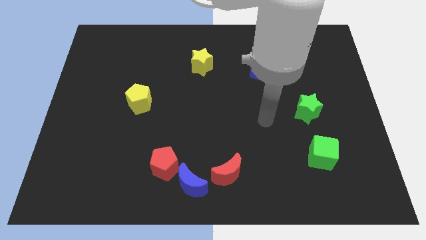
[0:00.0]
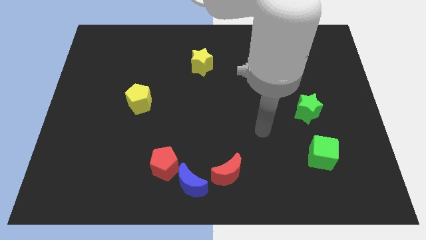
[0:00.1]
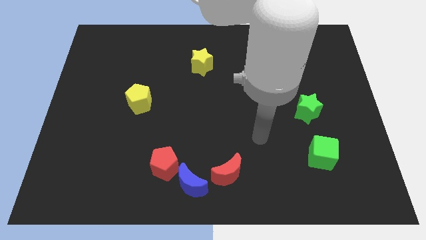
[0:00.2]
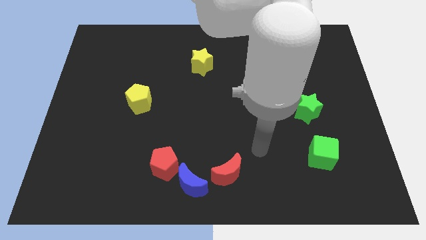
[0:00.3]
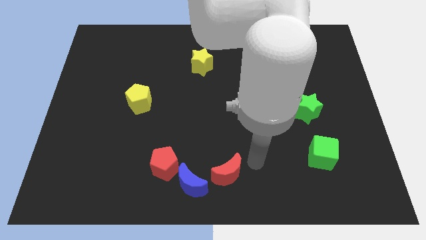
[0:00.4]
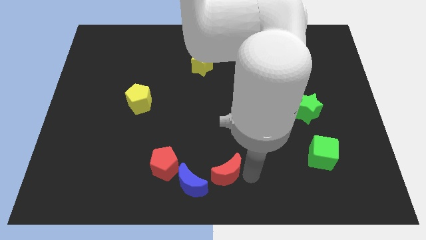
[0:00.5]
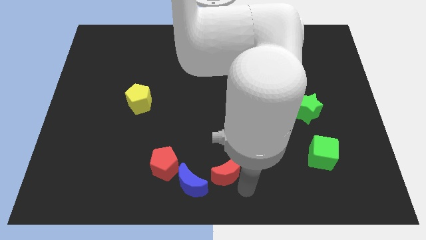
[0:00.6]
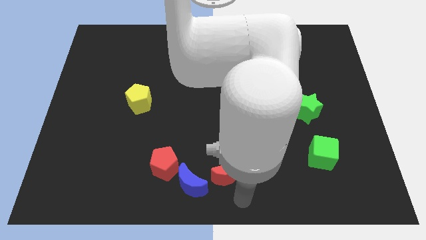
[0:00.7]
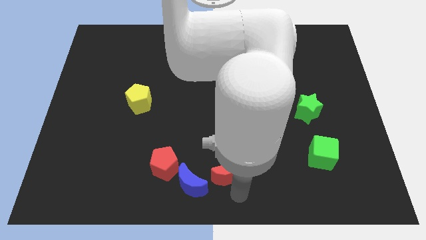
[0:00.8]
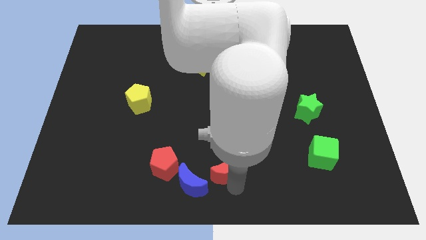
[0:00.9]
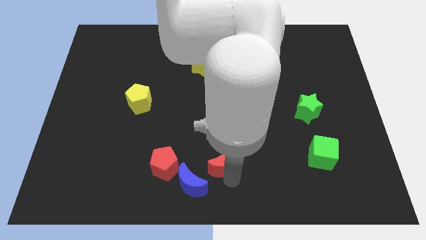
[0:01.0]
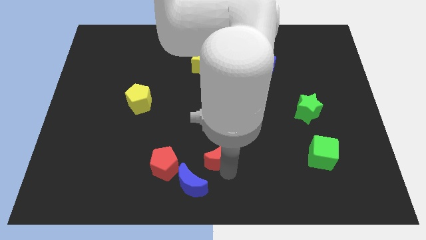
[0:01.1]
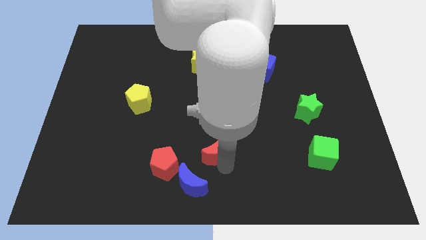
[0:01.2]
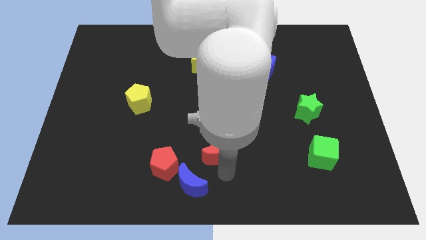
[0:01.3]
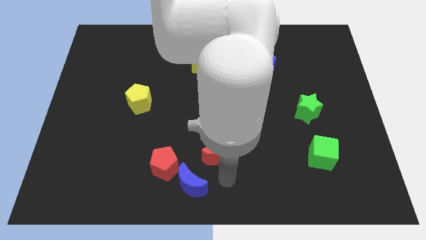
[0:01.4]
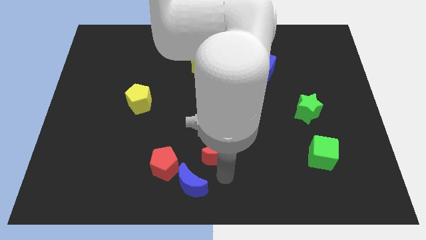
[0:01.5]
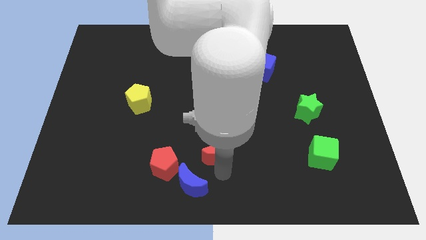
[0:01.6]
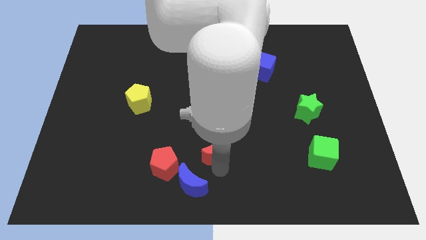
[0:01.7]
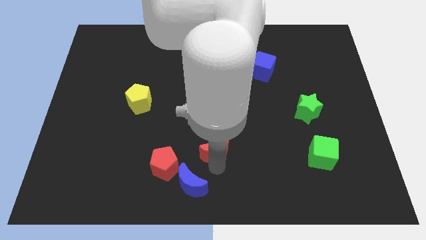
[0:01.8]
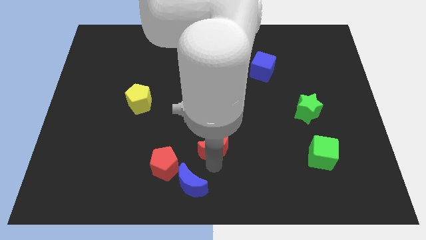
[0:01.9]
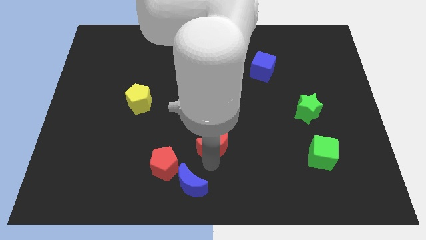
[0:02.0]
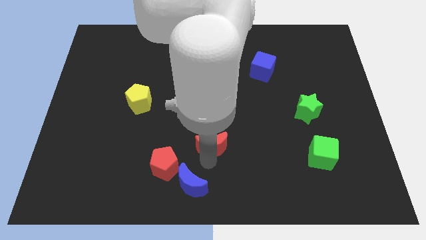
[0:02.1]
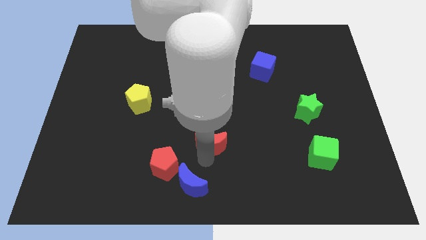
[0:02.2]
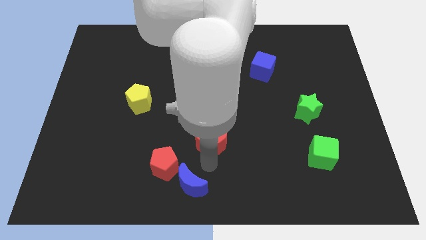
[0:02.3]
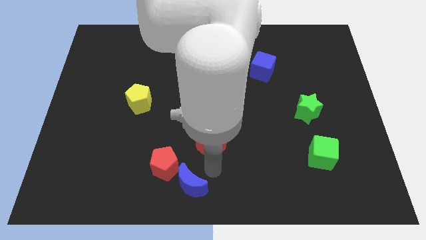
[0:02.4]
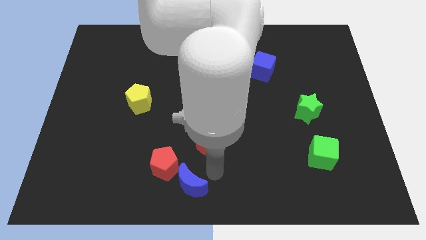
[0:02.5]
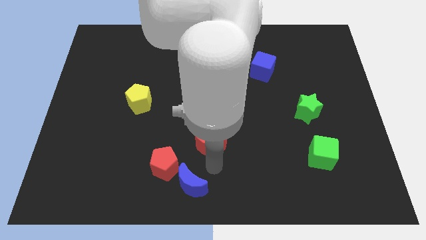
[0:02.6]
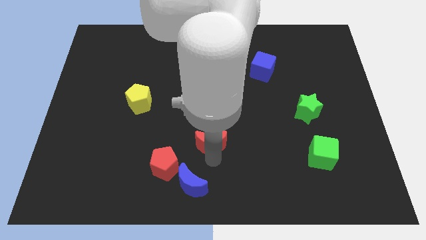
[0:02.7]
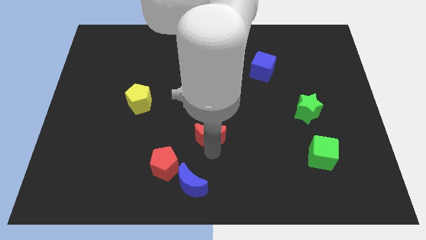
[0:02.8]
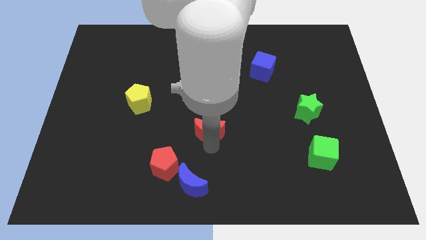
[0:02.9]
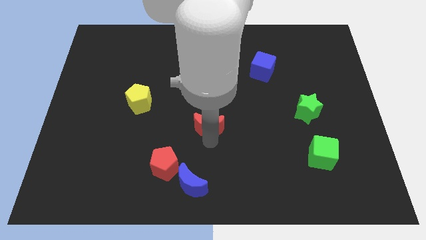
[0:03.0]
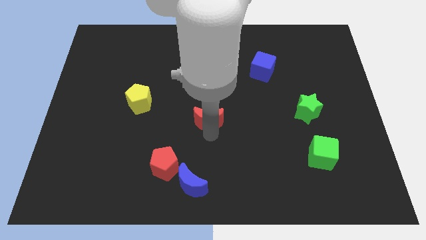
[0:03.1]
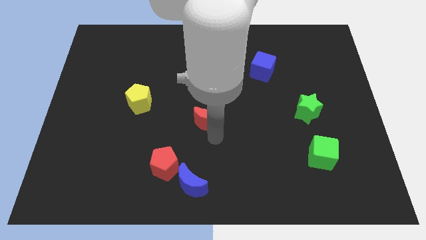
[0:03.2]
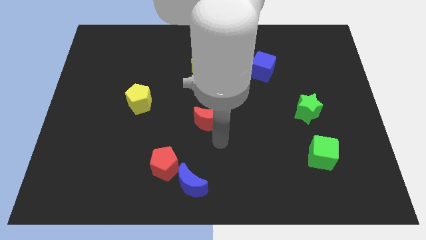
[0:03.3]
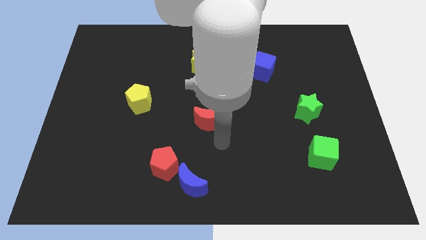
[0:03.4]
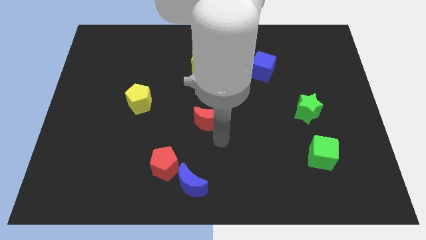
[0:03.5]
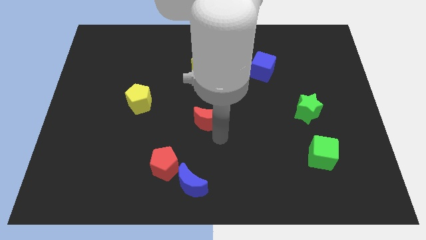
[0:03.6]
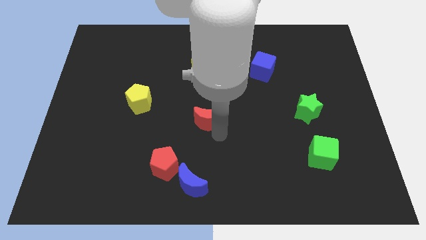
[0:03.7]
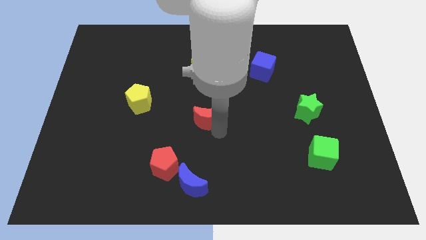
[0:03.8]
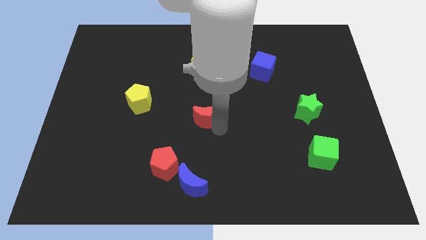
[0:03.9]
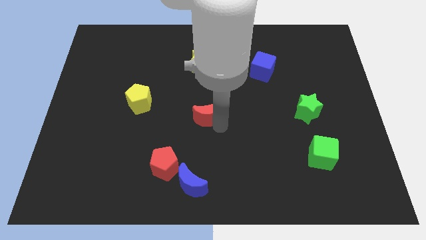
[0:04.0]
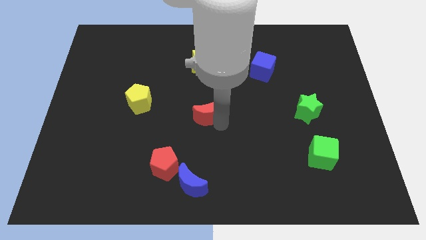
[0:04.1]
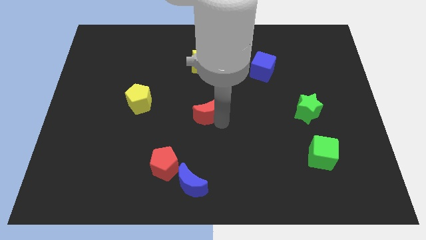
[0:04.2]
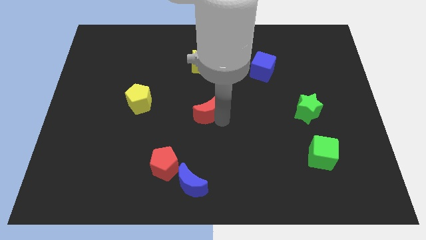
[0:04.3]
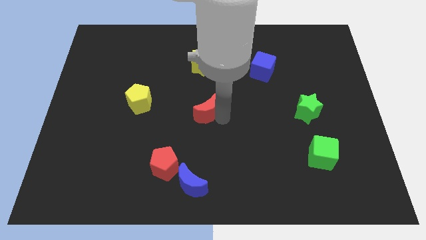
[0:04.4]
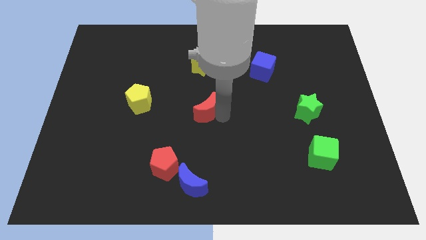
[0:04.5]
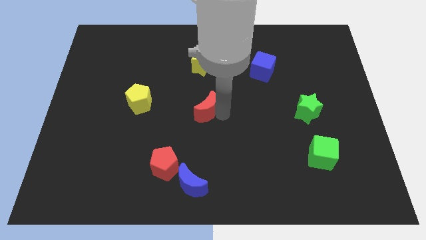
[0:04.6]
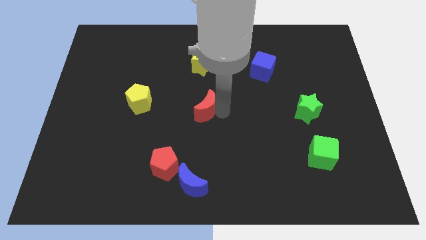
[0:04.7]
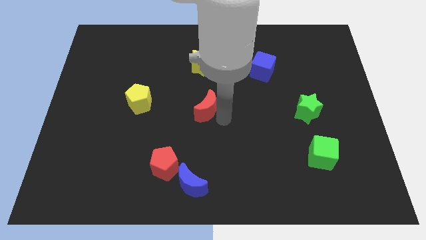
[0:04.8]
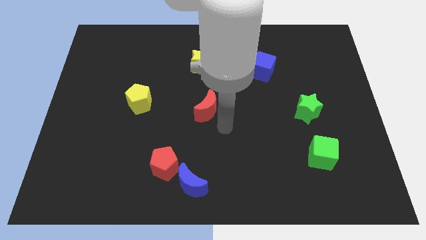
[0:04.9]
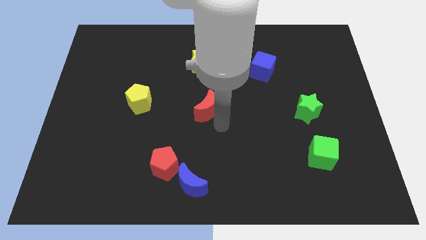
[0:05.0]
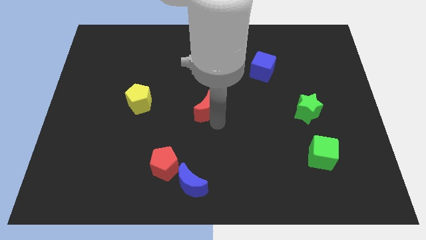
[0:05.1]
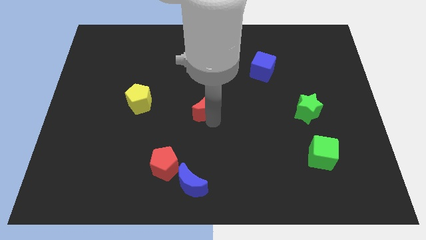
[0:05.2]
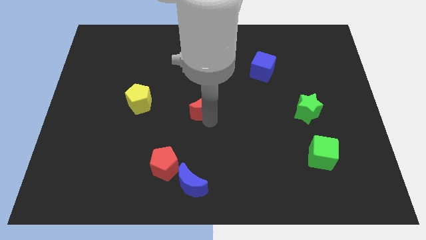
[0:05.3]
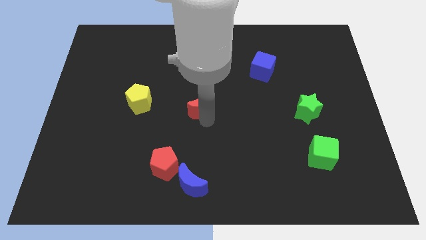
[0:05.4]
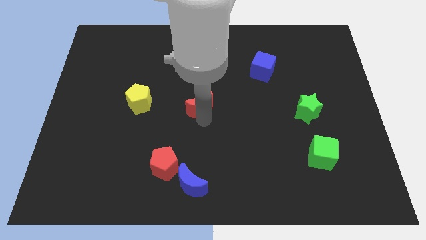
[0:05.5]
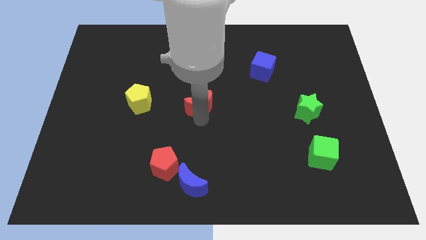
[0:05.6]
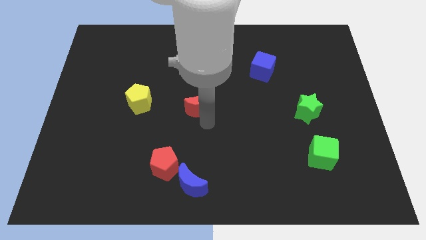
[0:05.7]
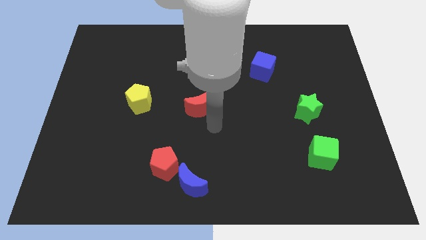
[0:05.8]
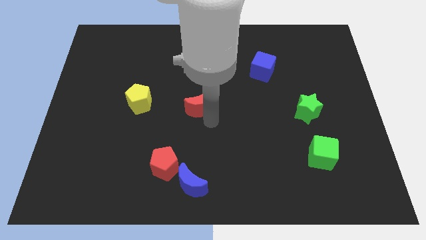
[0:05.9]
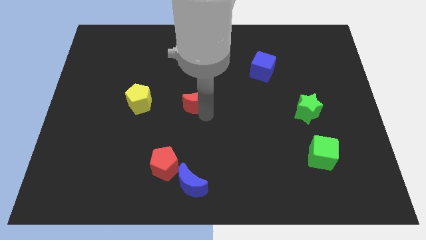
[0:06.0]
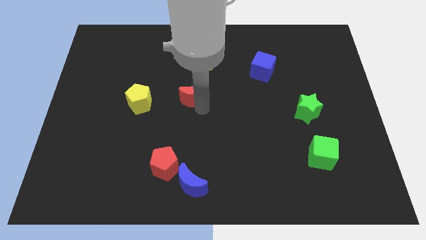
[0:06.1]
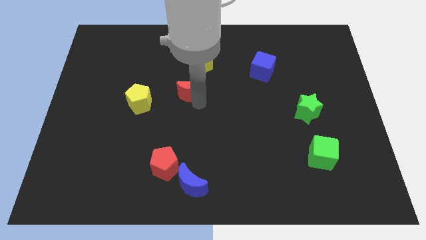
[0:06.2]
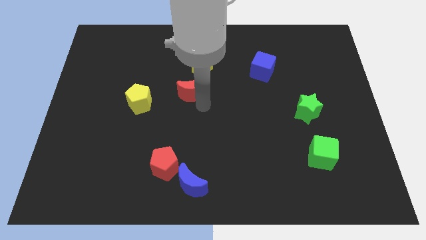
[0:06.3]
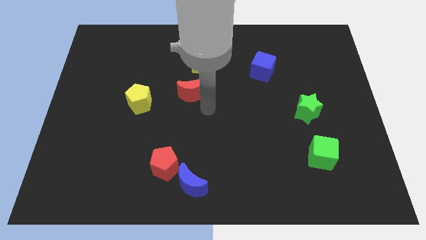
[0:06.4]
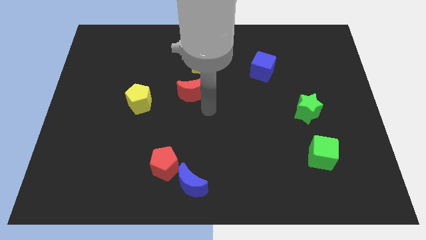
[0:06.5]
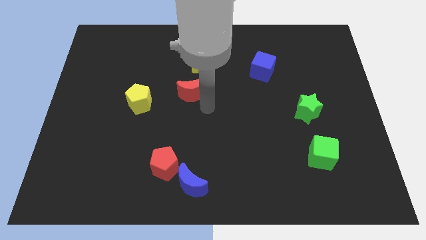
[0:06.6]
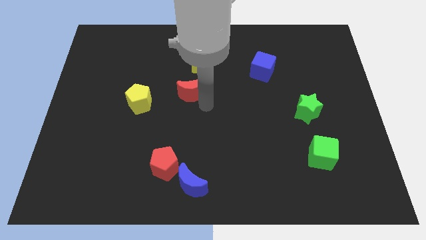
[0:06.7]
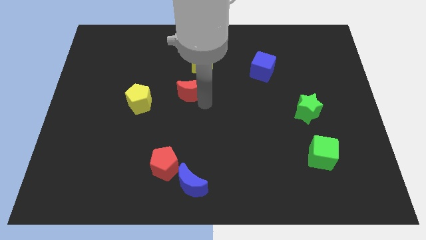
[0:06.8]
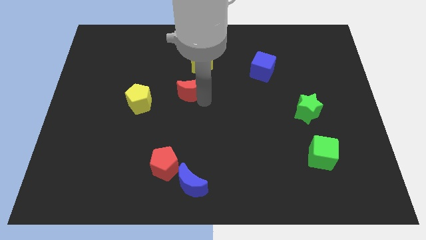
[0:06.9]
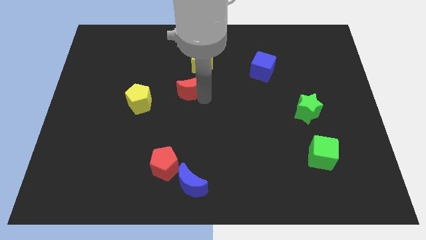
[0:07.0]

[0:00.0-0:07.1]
push the red moon to the bottom left side of the yellow star
